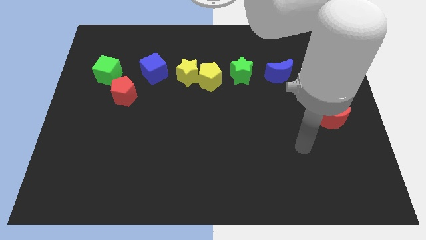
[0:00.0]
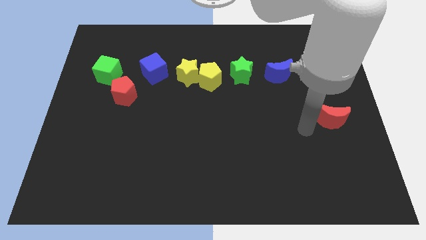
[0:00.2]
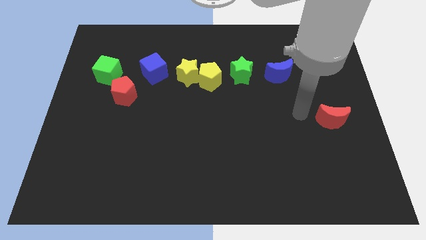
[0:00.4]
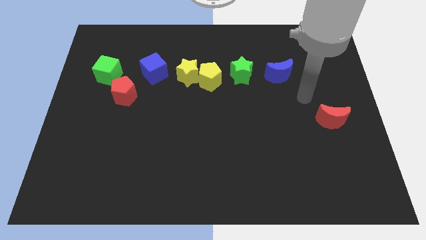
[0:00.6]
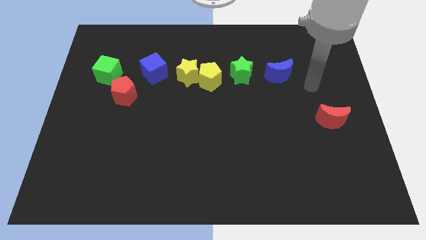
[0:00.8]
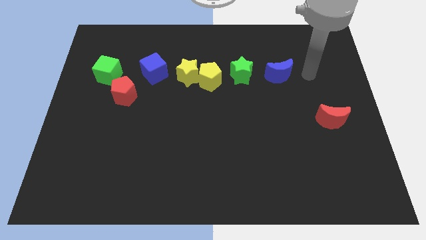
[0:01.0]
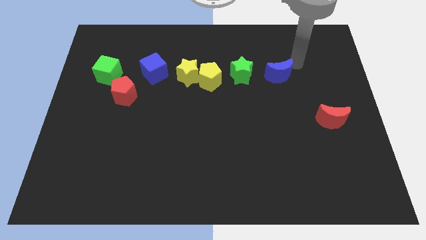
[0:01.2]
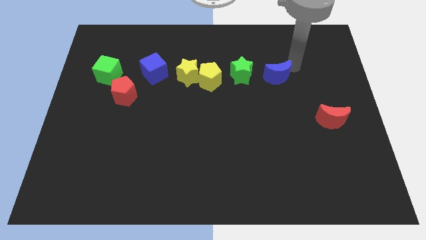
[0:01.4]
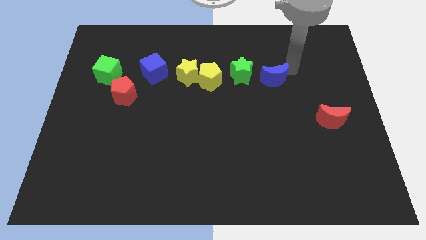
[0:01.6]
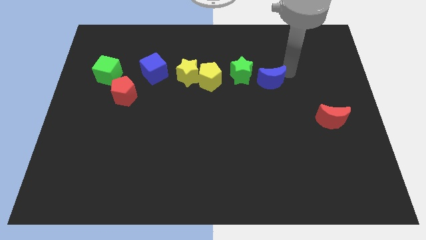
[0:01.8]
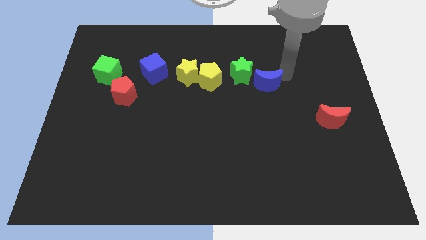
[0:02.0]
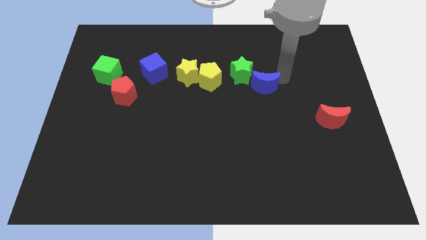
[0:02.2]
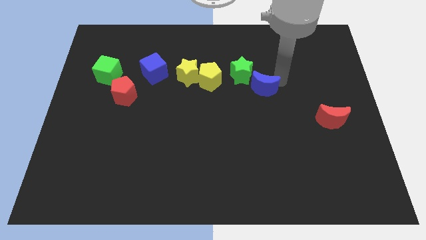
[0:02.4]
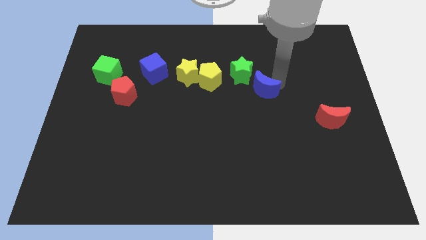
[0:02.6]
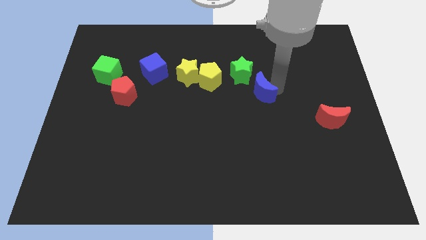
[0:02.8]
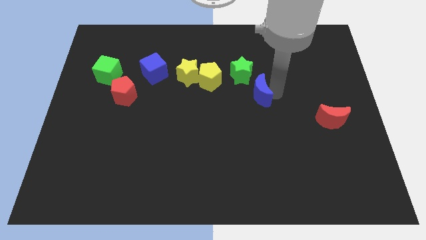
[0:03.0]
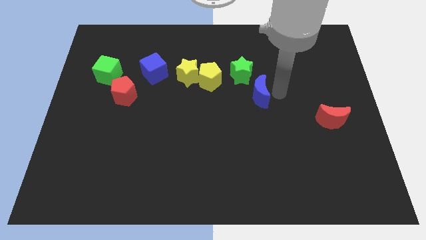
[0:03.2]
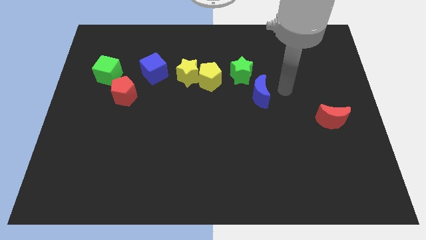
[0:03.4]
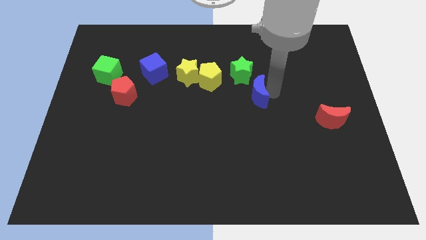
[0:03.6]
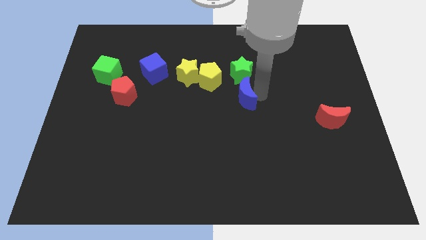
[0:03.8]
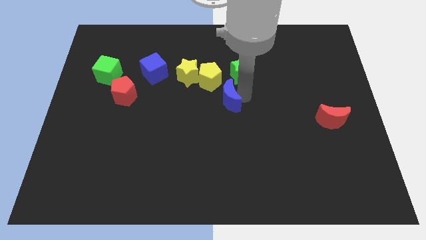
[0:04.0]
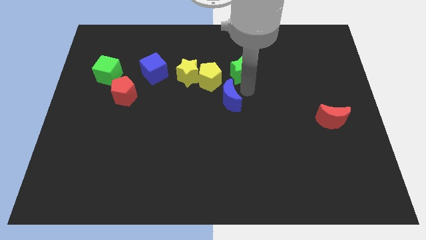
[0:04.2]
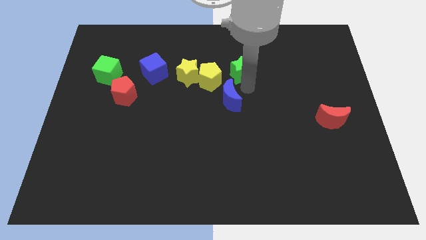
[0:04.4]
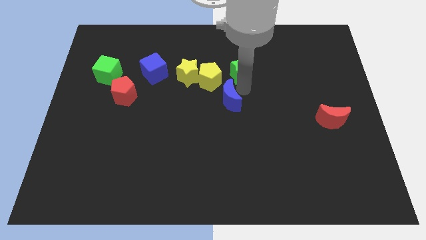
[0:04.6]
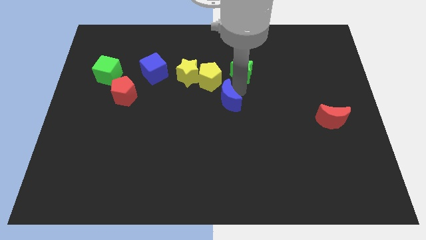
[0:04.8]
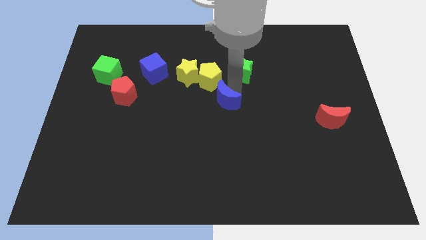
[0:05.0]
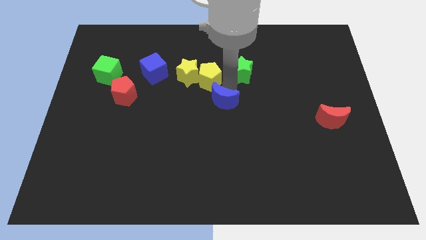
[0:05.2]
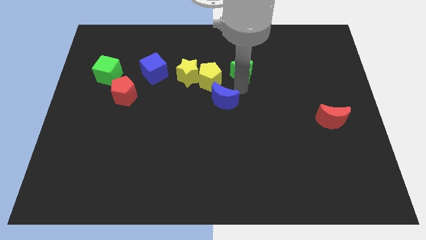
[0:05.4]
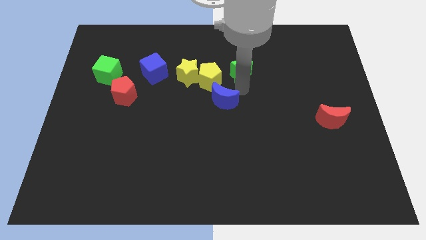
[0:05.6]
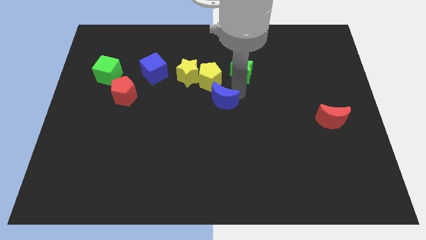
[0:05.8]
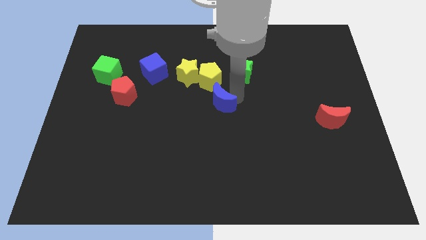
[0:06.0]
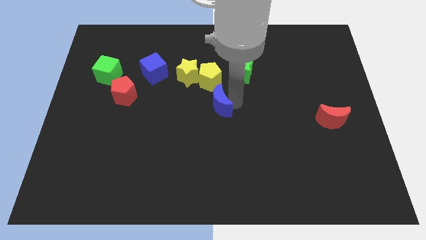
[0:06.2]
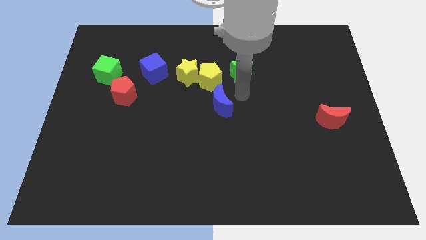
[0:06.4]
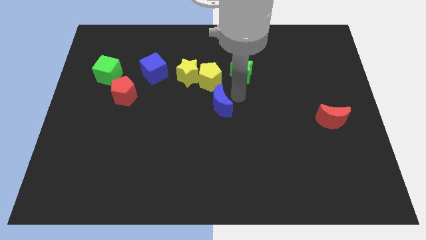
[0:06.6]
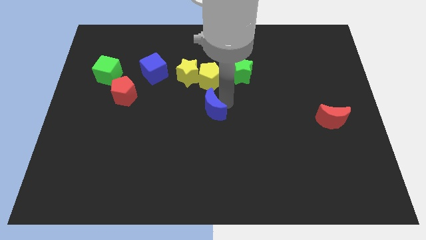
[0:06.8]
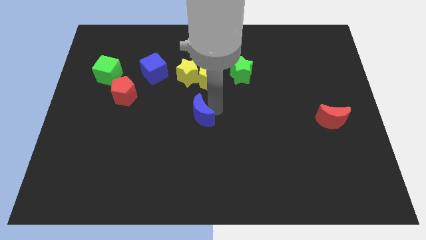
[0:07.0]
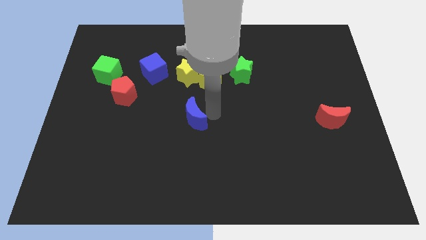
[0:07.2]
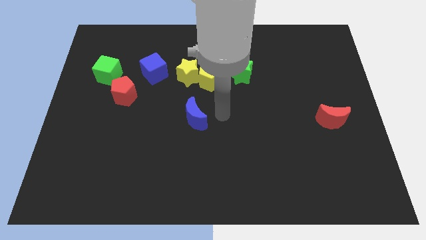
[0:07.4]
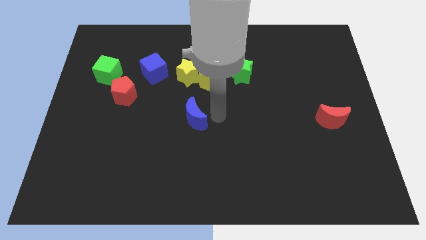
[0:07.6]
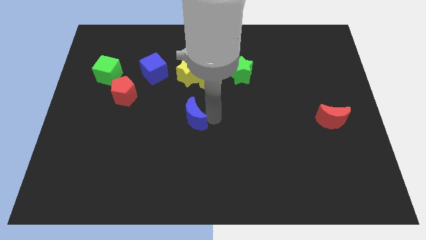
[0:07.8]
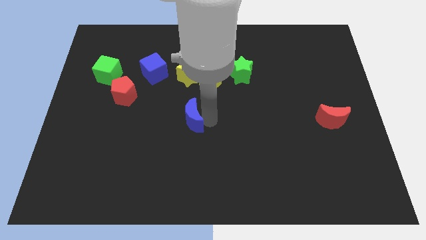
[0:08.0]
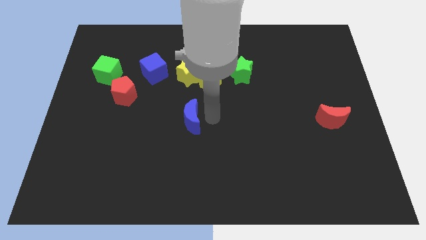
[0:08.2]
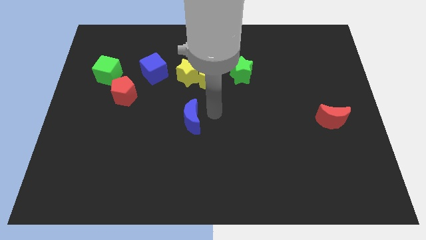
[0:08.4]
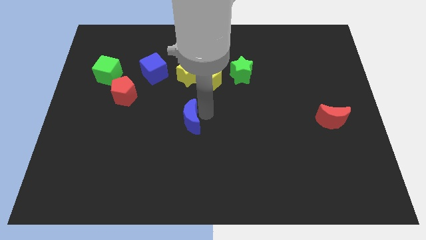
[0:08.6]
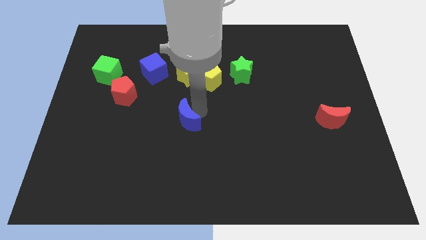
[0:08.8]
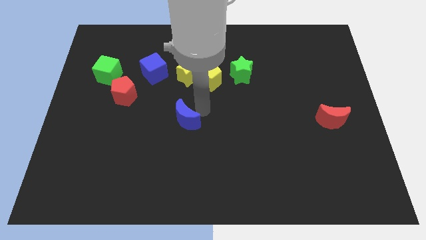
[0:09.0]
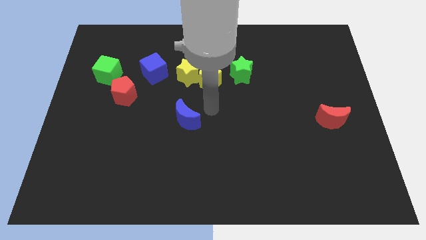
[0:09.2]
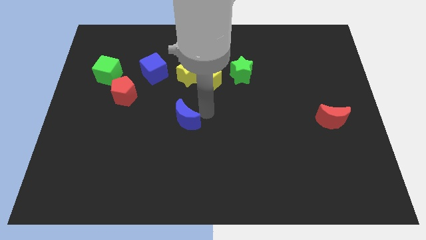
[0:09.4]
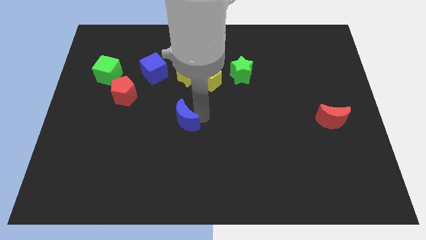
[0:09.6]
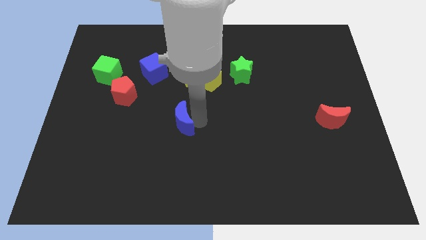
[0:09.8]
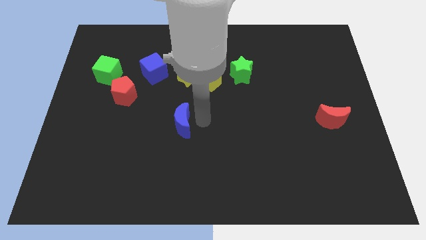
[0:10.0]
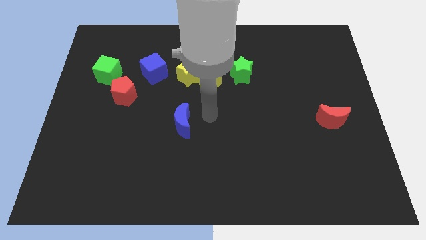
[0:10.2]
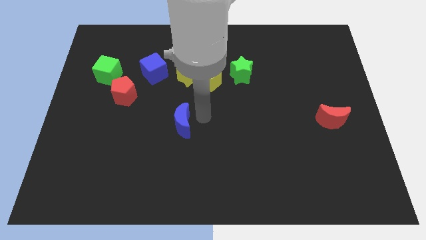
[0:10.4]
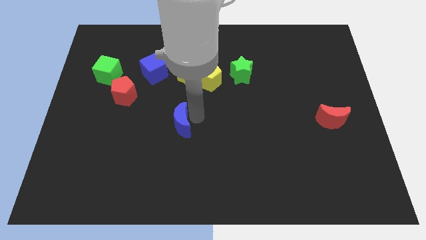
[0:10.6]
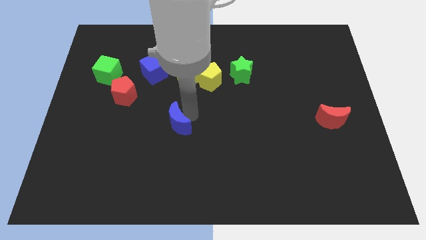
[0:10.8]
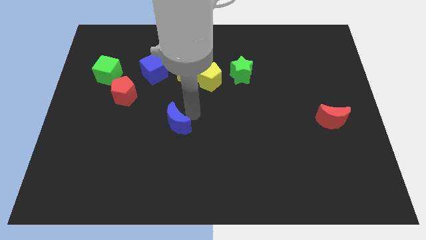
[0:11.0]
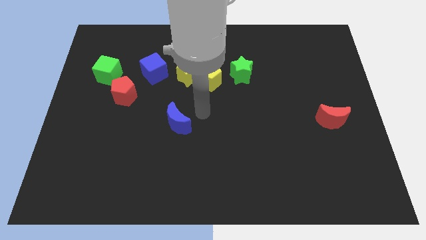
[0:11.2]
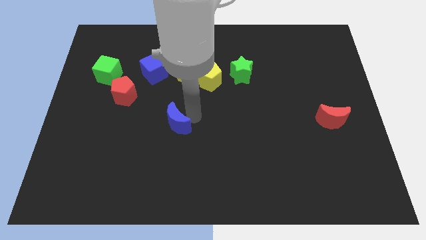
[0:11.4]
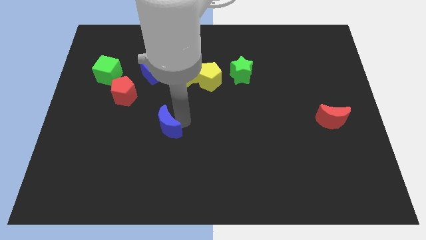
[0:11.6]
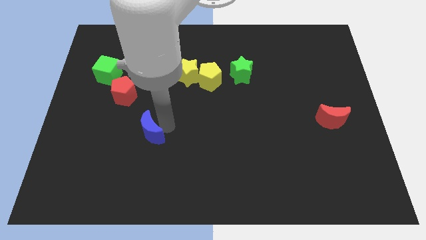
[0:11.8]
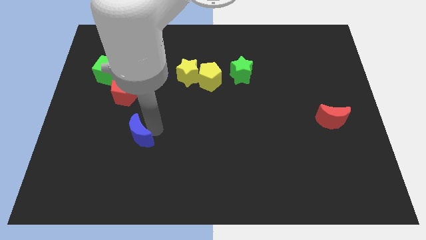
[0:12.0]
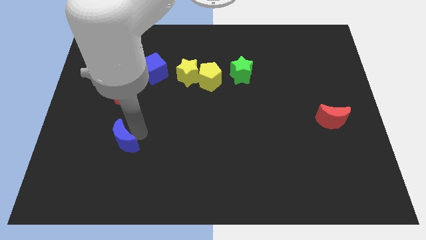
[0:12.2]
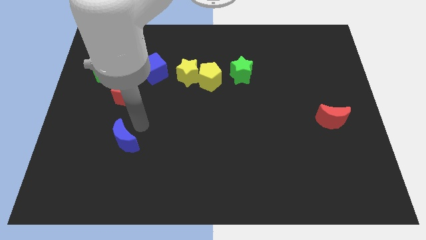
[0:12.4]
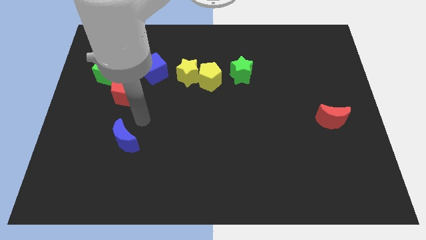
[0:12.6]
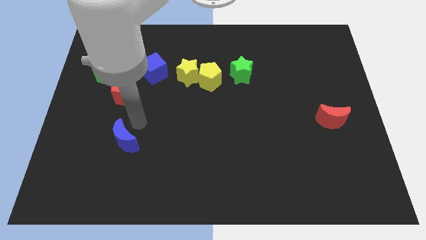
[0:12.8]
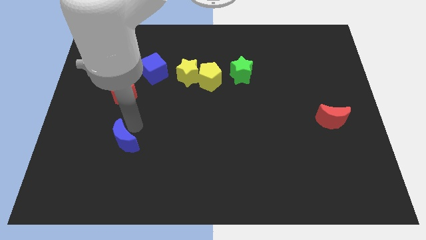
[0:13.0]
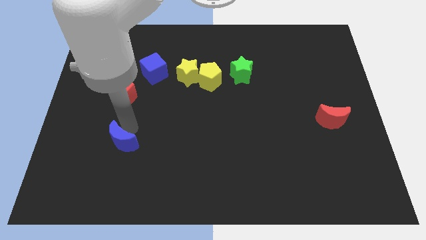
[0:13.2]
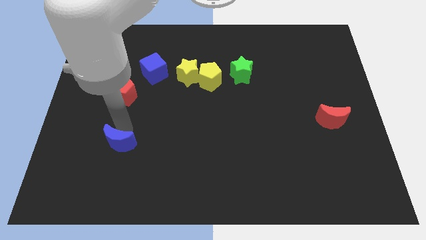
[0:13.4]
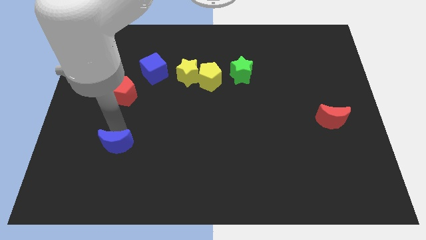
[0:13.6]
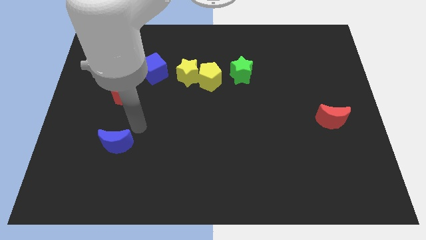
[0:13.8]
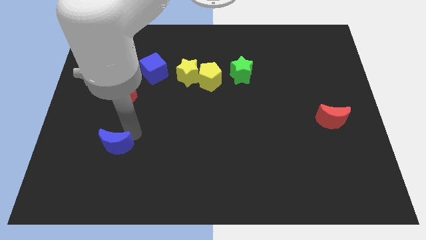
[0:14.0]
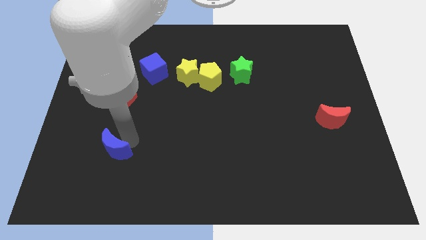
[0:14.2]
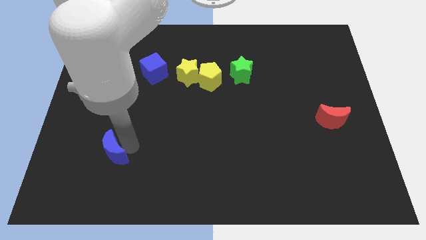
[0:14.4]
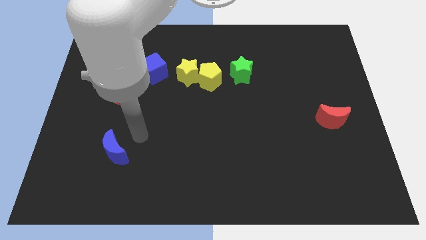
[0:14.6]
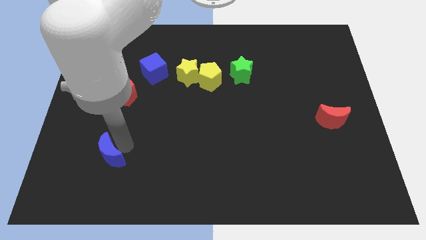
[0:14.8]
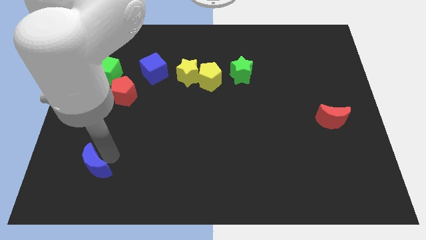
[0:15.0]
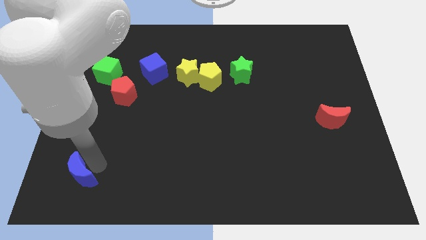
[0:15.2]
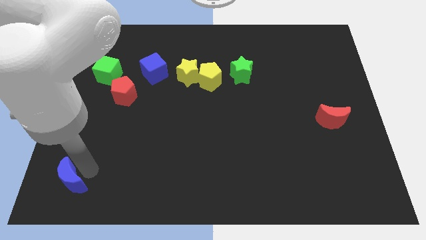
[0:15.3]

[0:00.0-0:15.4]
move the blue moon to the bottom left of the board
